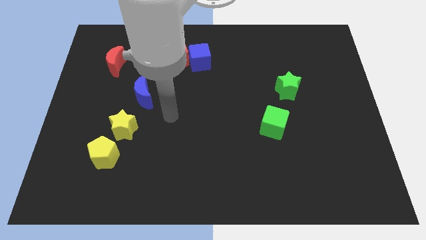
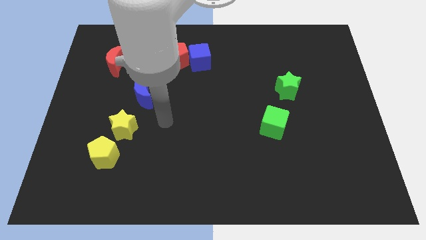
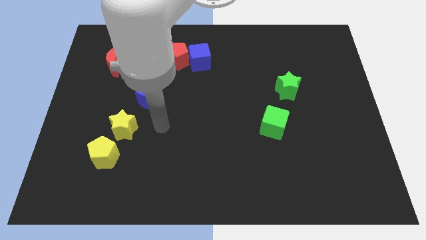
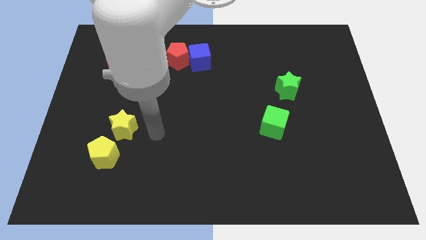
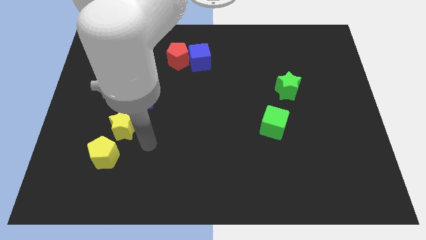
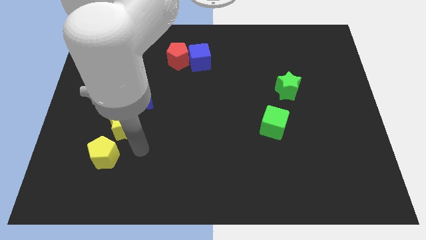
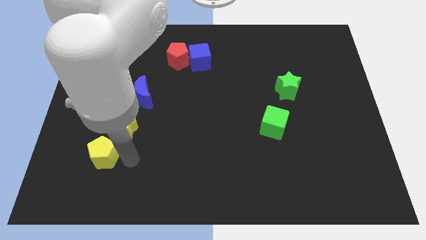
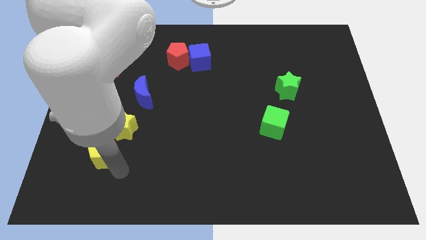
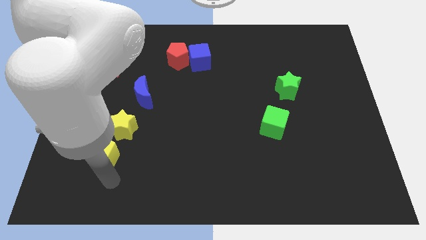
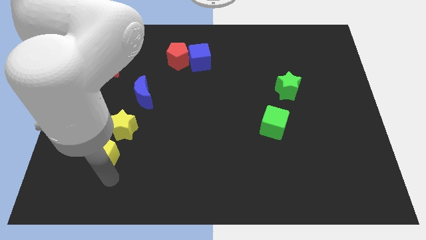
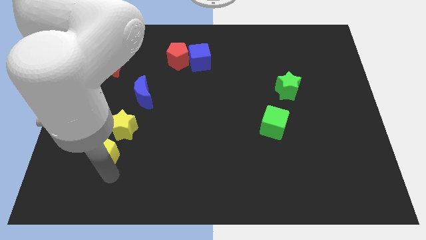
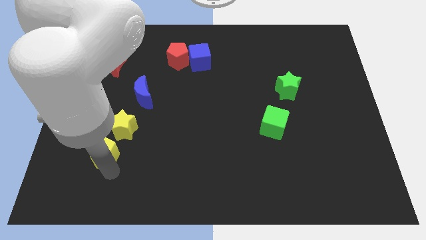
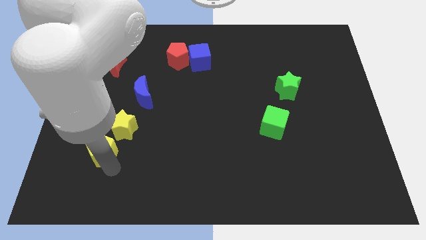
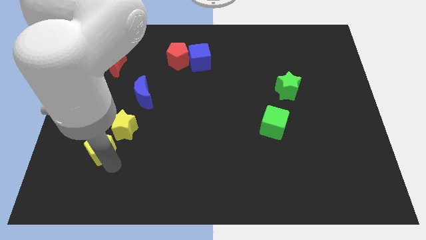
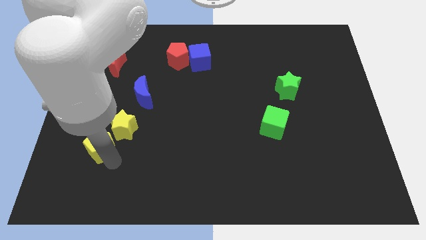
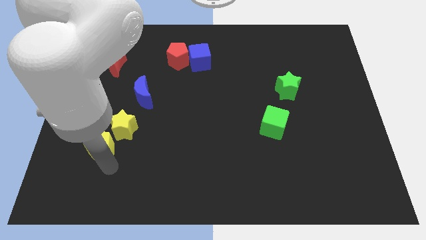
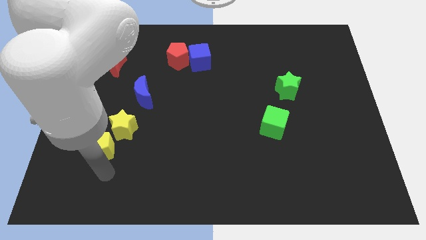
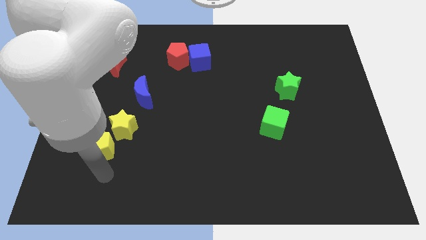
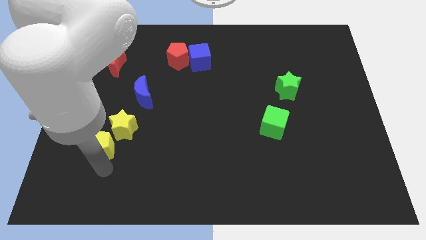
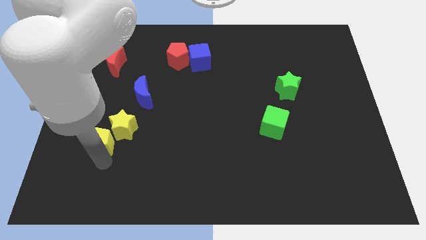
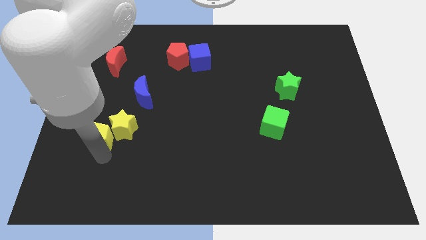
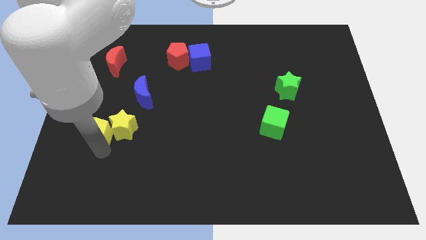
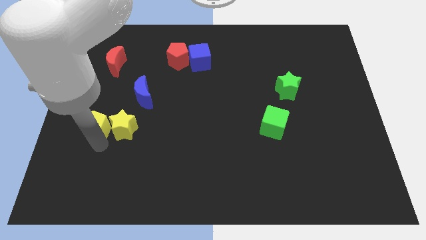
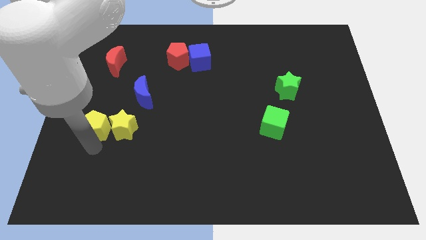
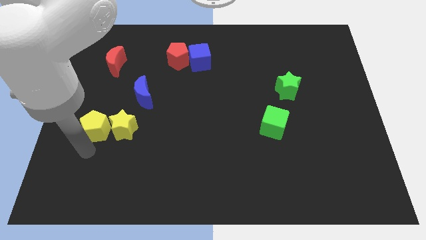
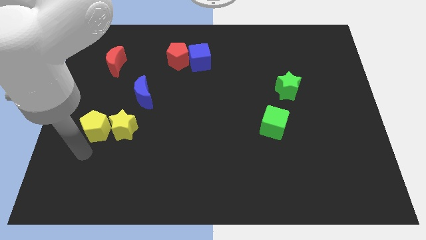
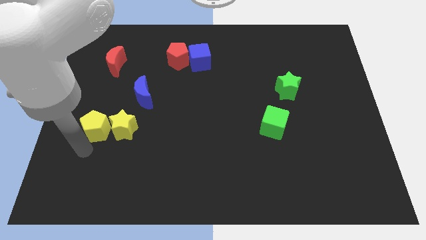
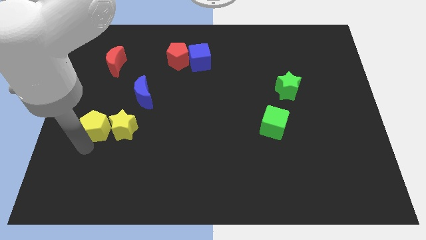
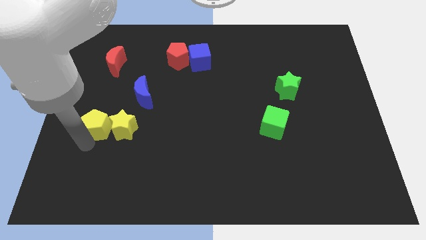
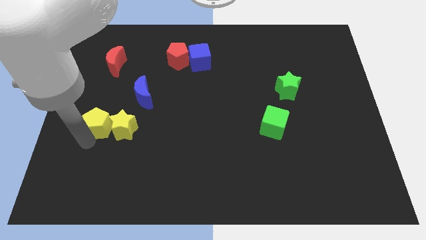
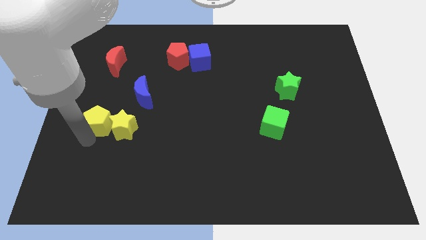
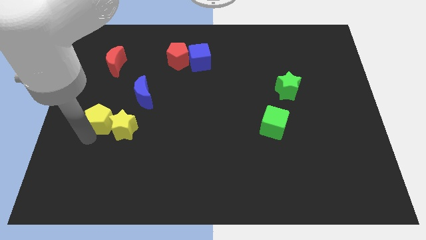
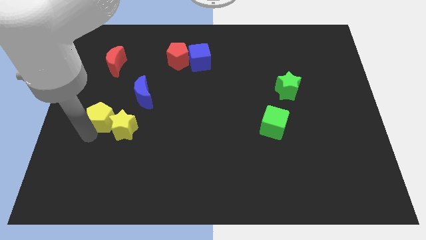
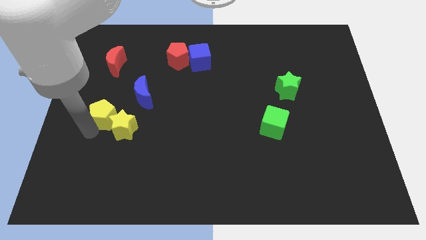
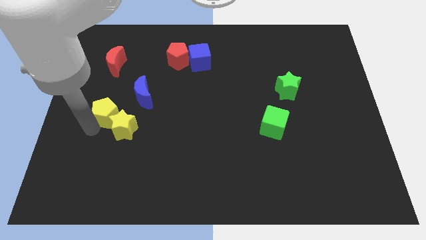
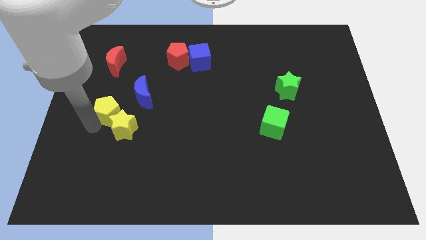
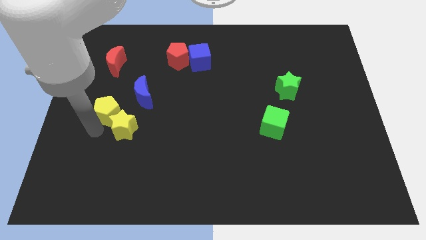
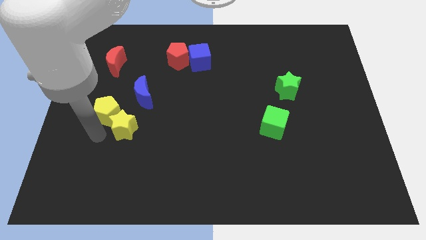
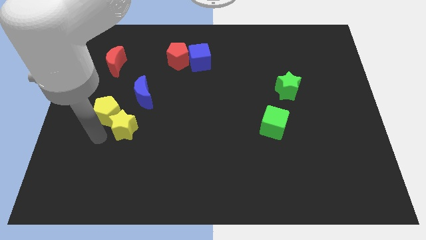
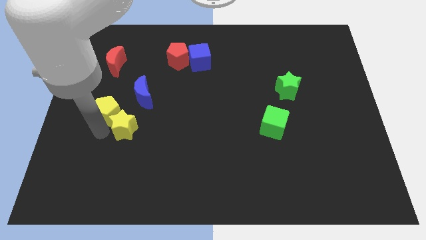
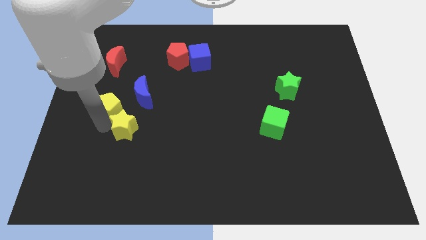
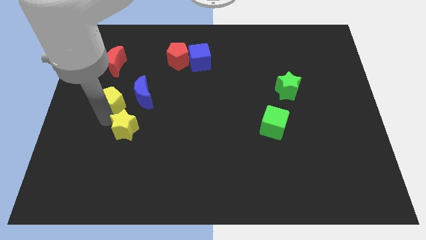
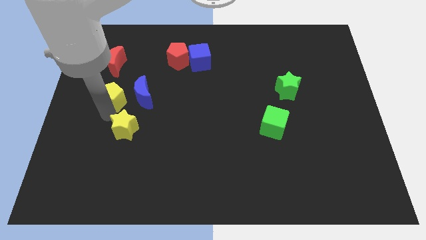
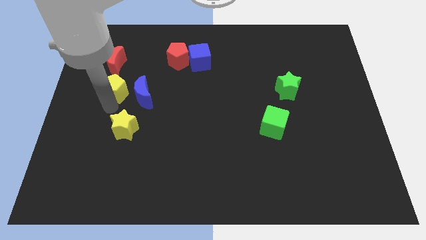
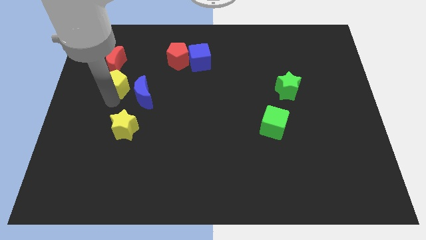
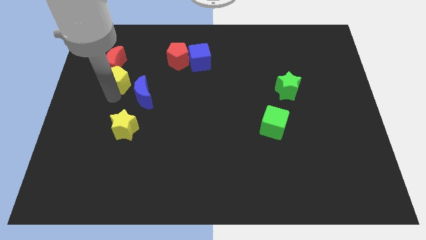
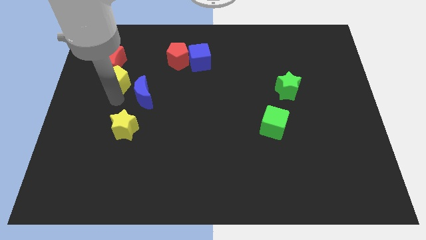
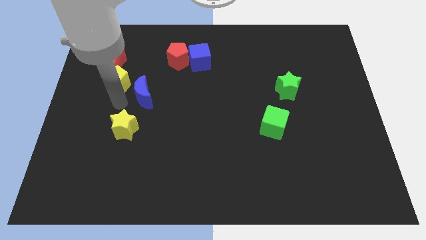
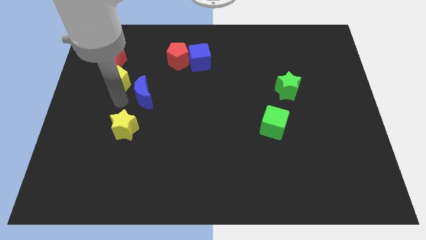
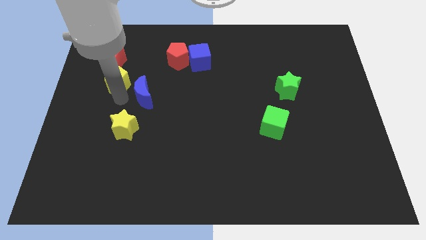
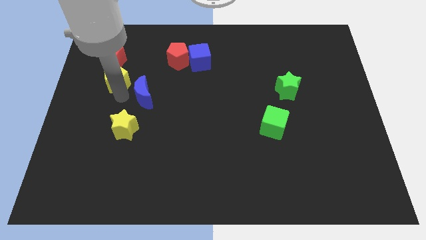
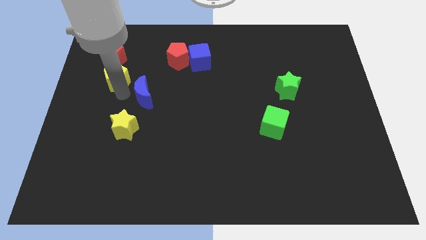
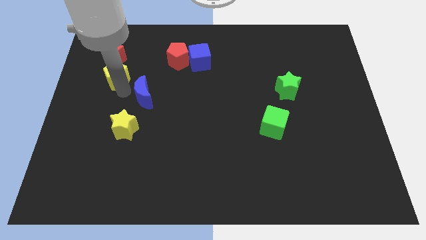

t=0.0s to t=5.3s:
put the yellow pentagon next to the red moon

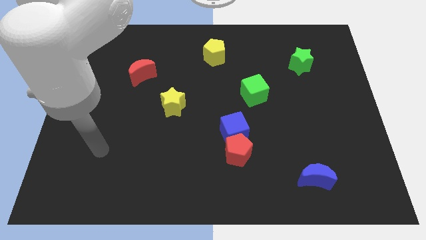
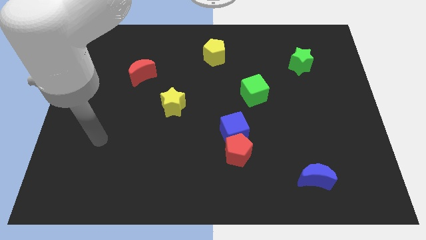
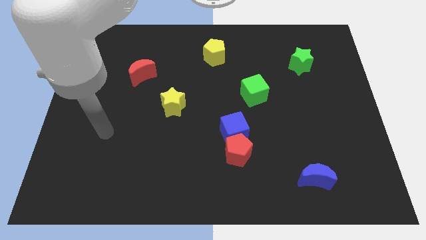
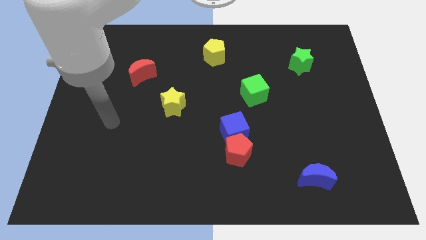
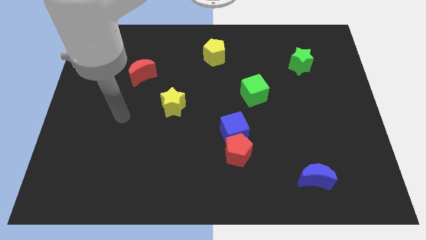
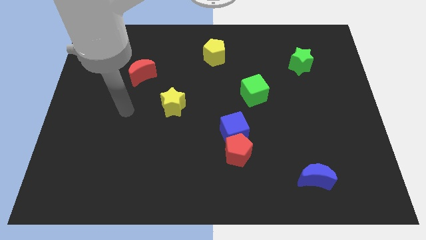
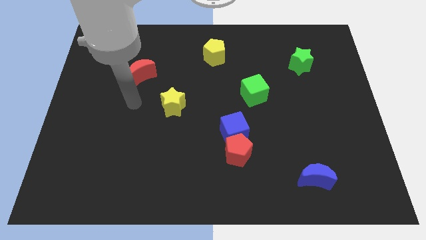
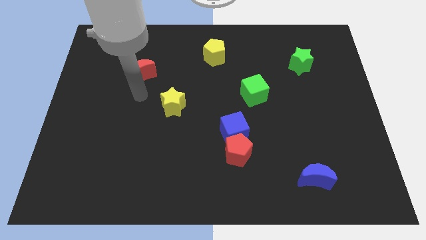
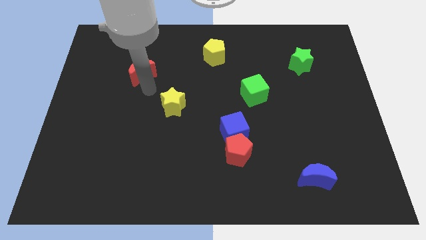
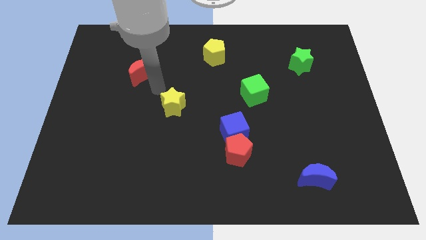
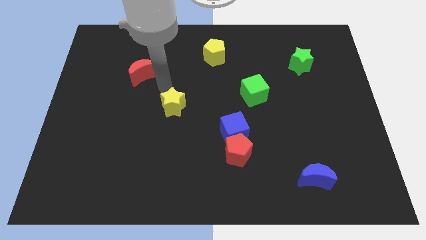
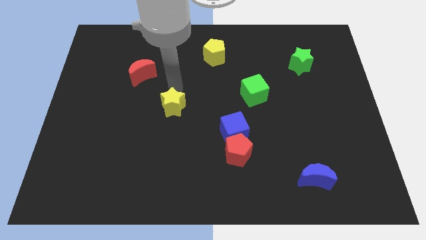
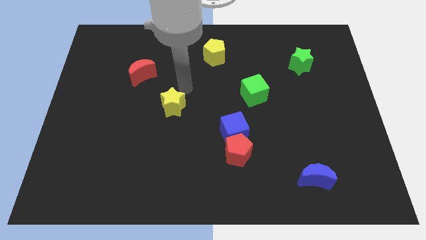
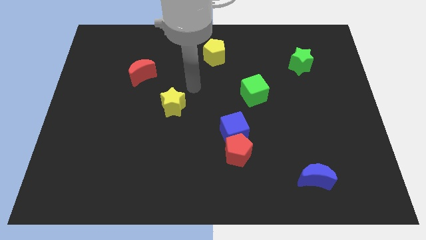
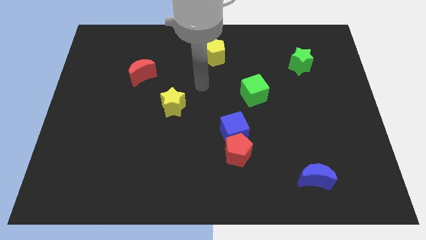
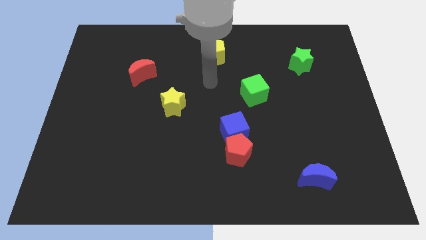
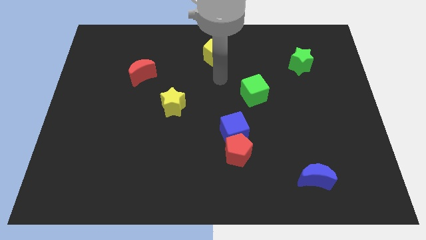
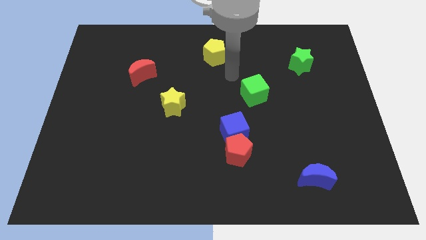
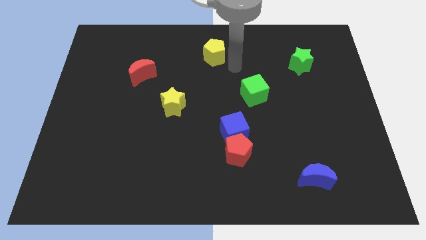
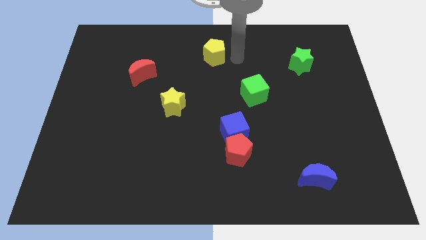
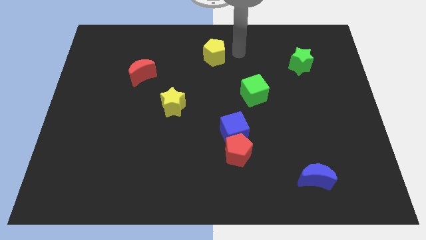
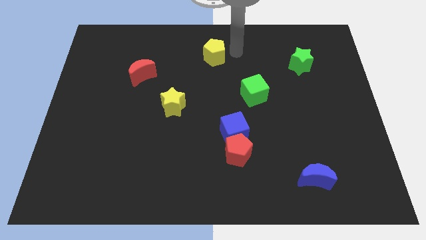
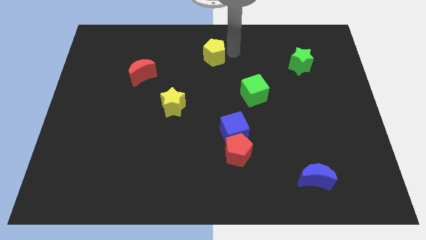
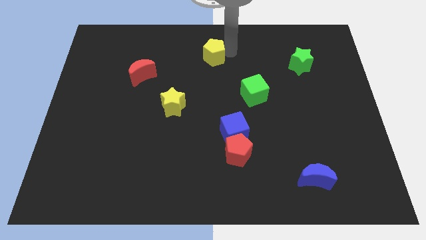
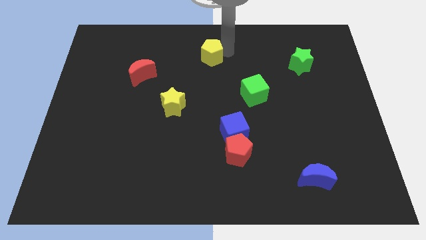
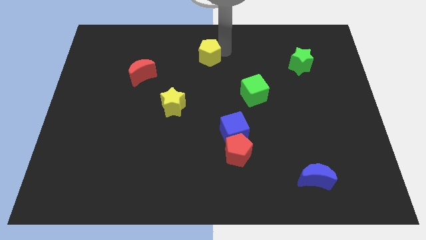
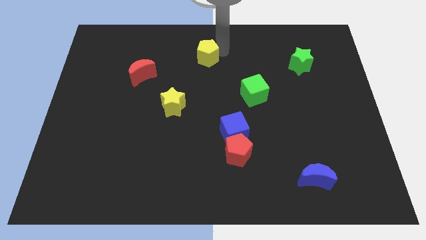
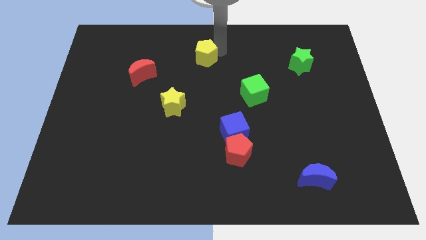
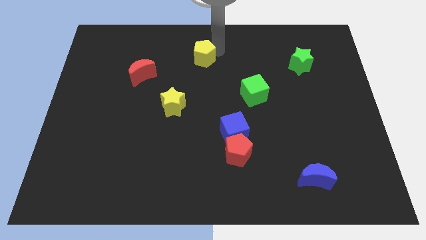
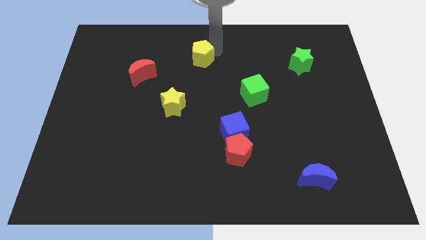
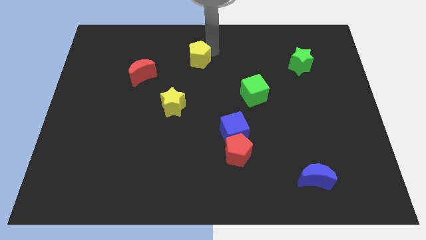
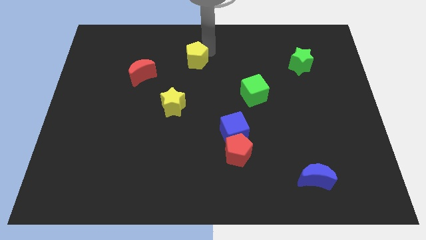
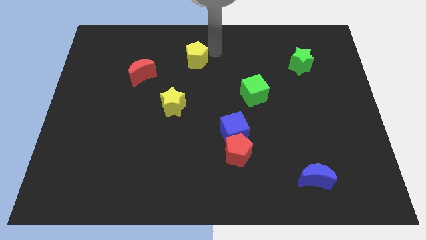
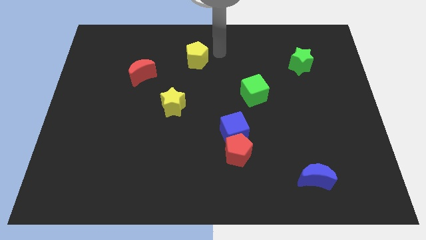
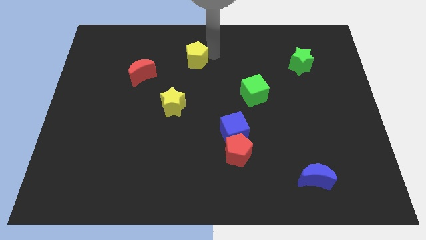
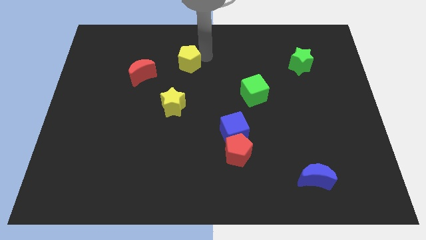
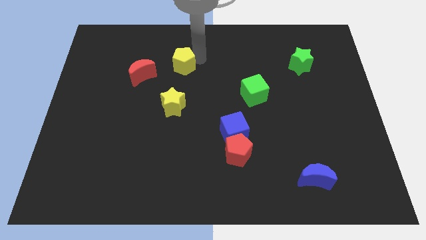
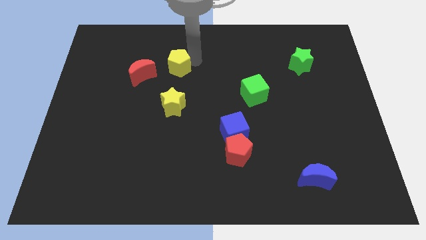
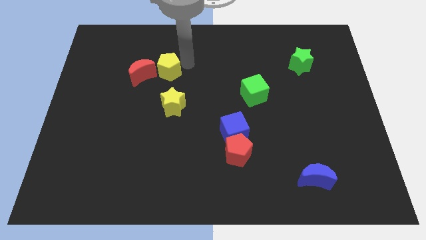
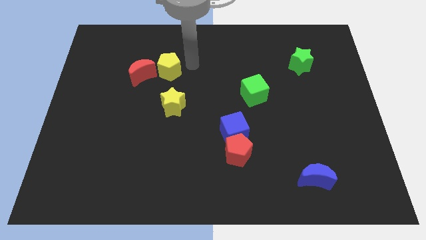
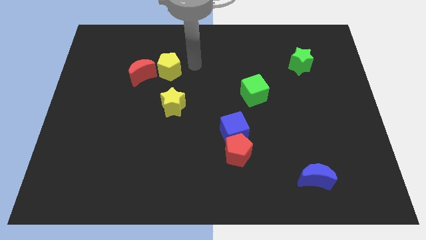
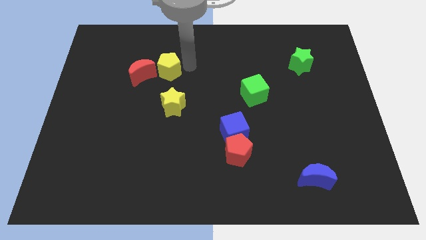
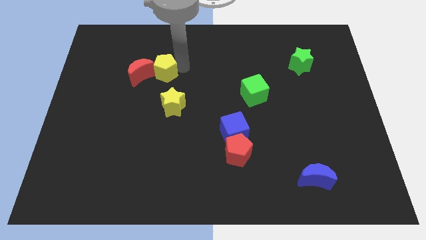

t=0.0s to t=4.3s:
move the yellow pentagon close to the red moon
